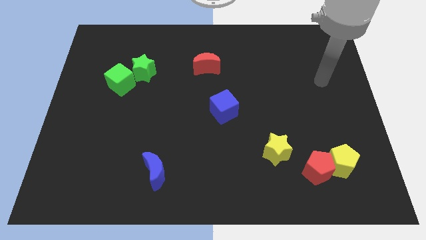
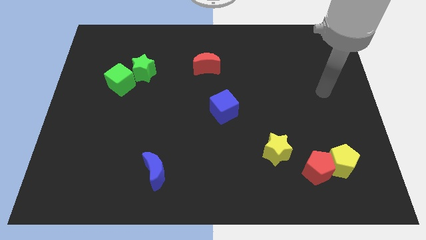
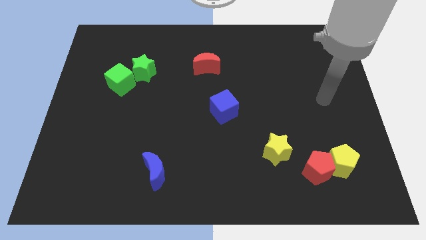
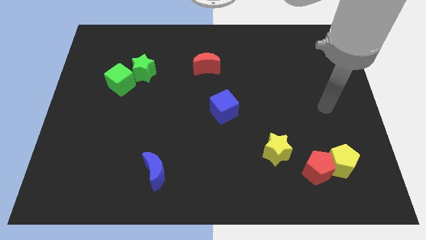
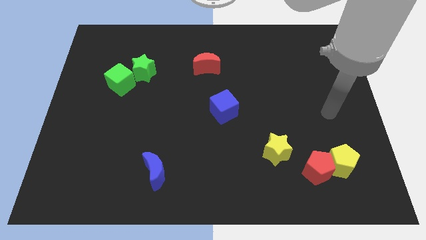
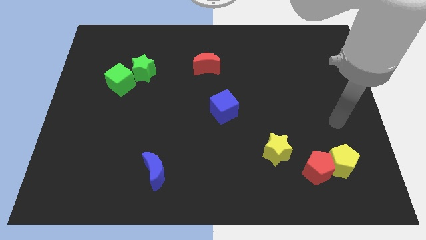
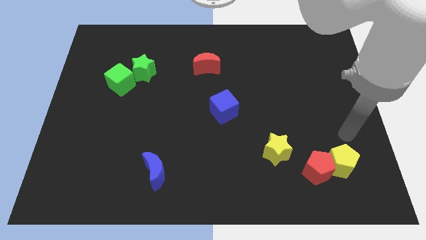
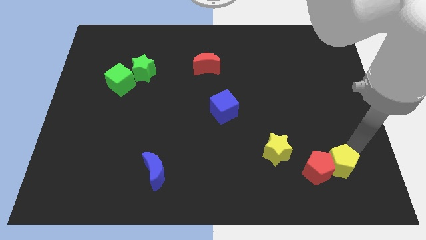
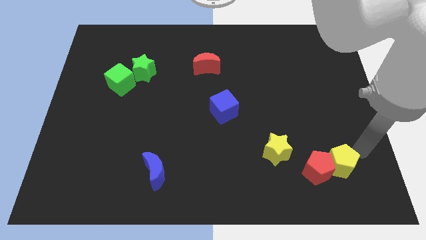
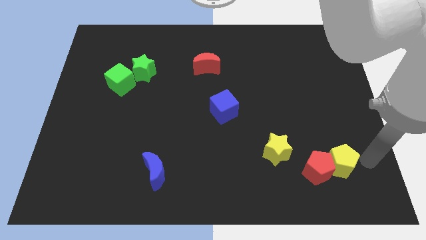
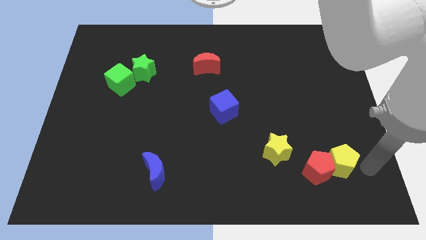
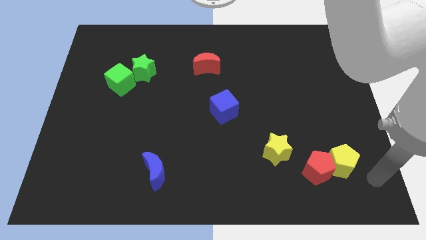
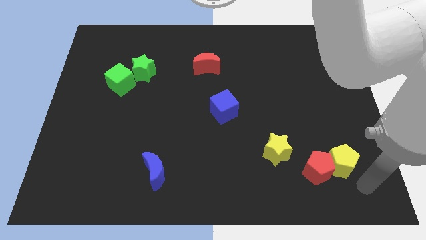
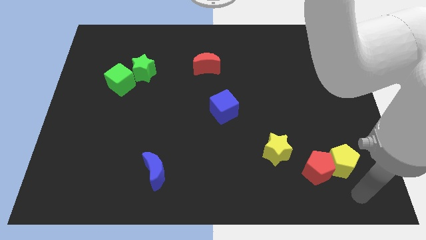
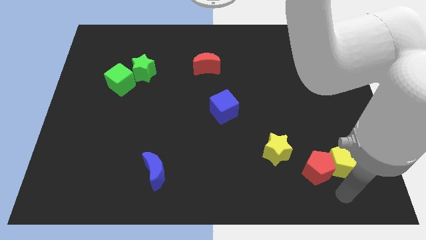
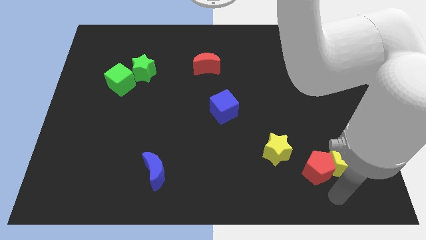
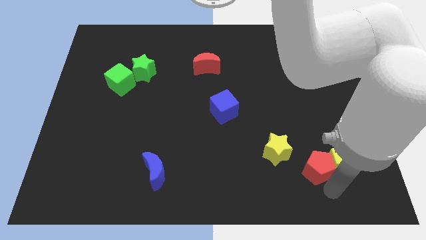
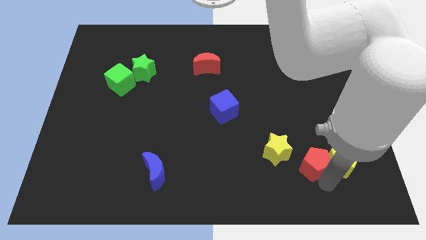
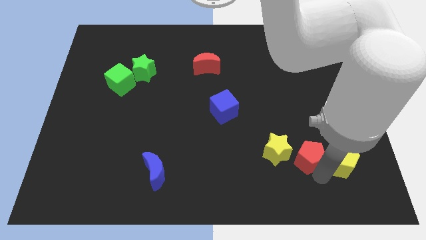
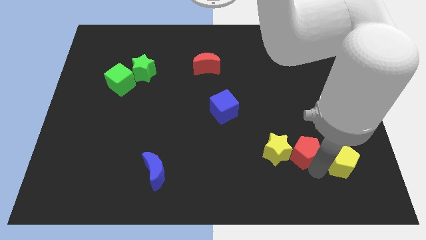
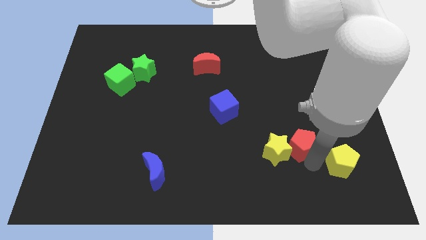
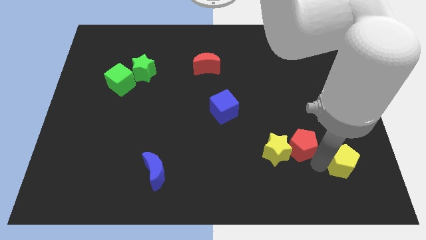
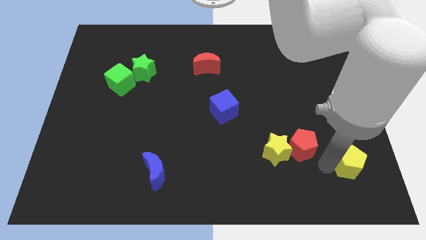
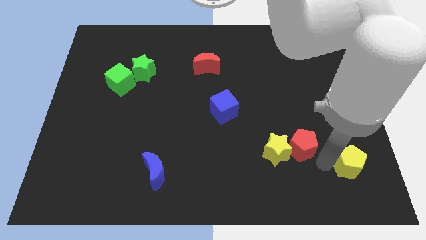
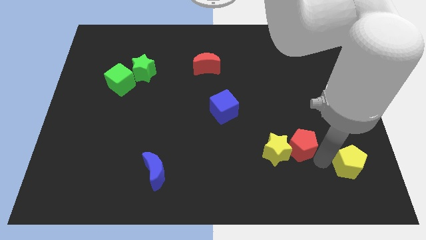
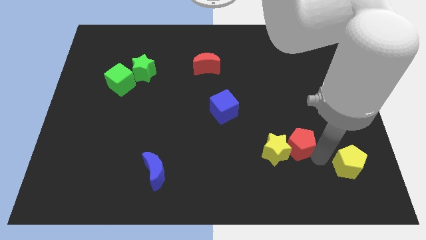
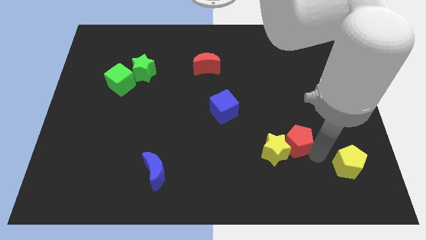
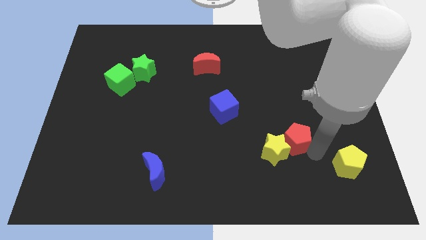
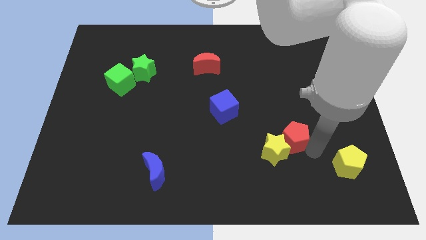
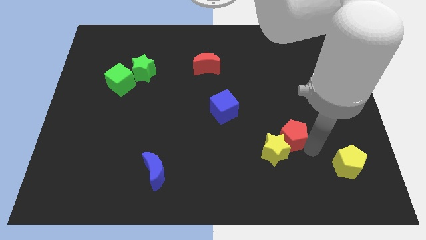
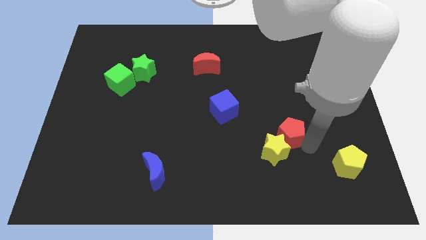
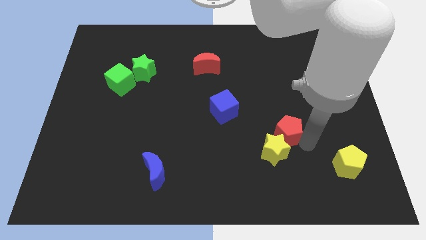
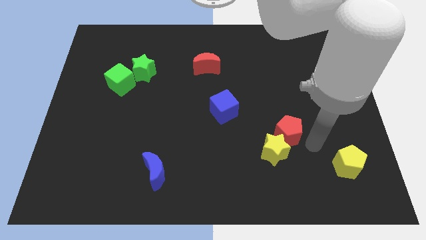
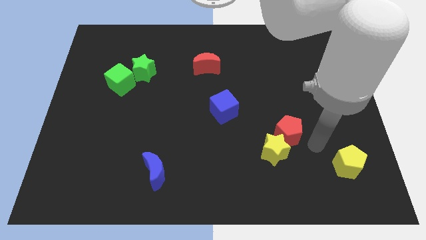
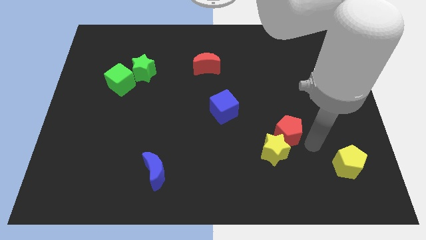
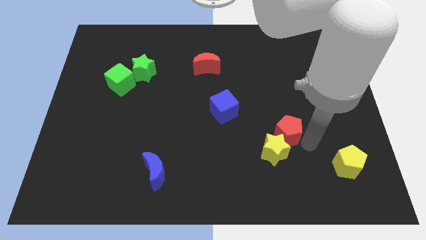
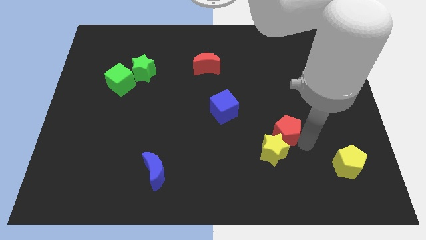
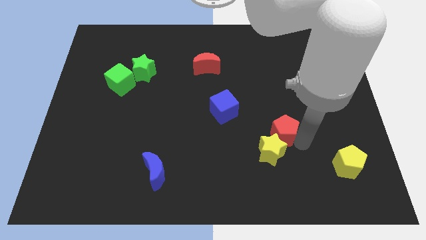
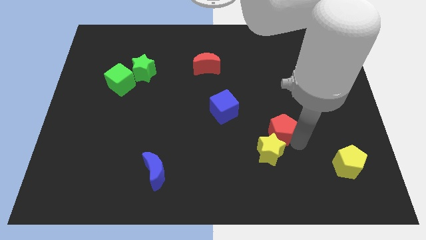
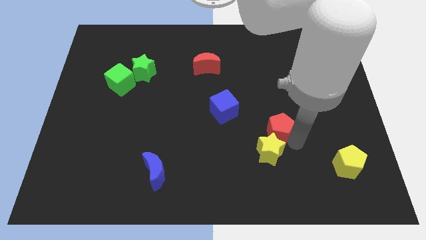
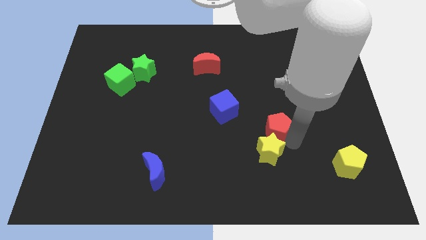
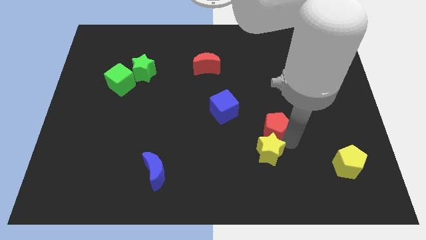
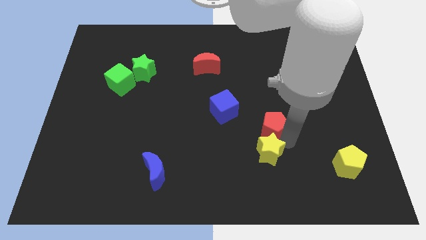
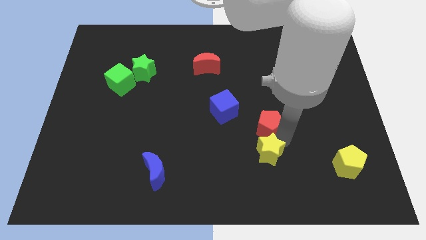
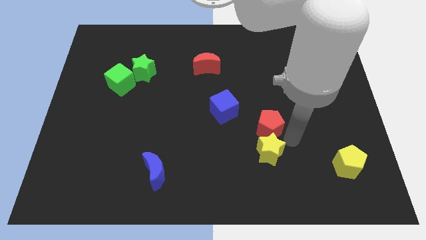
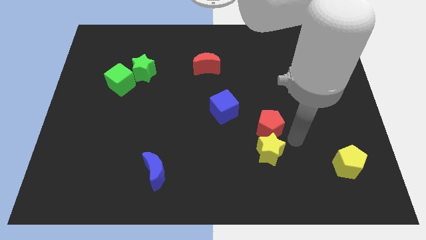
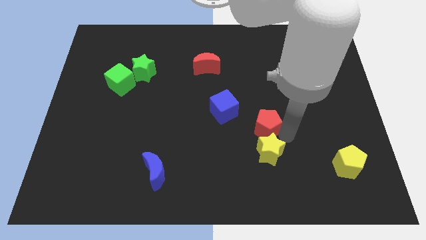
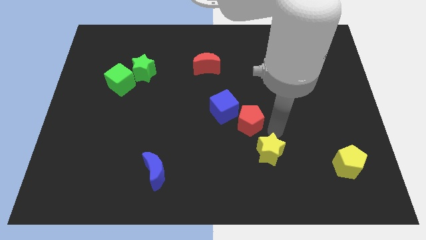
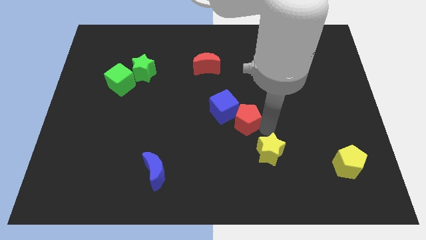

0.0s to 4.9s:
put the red pentagon close to the blue cube

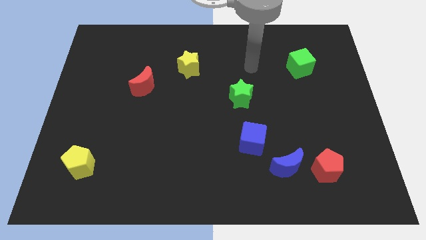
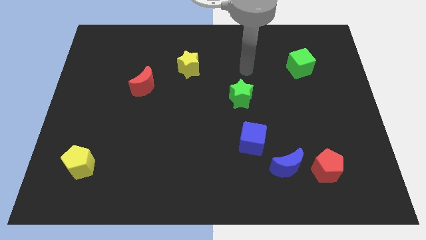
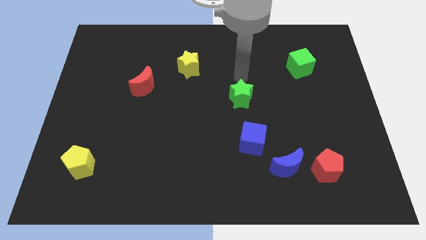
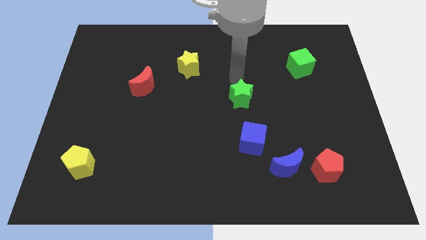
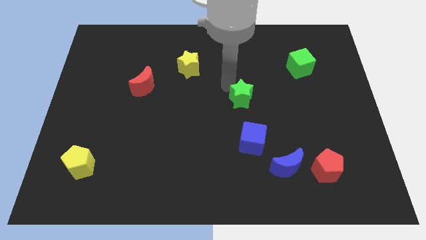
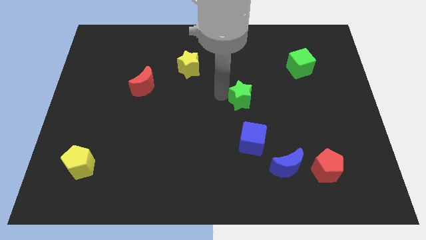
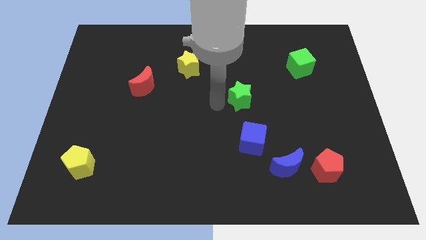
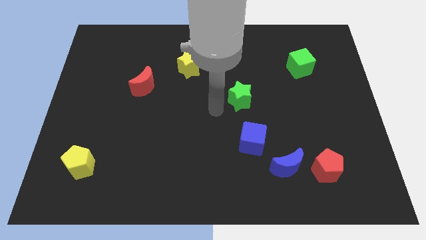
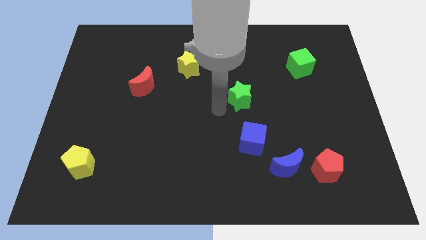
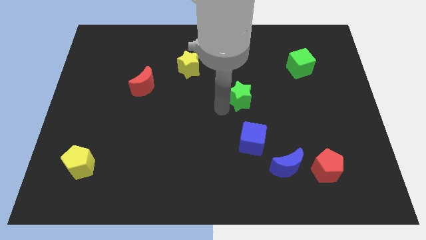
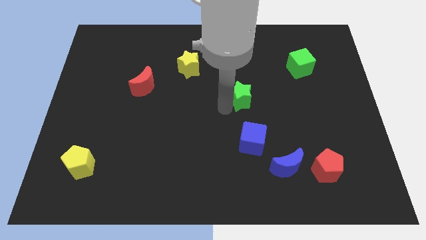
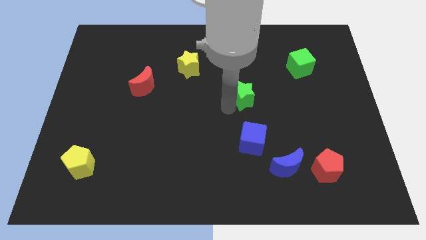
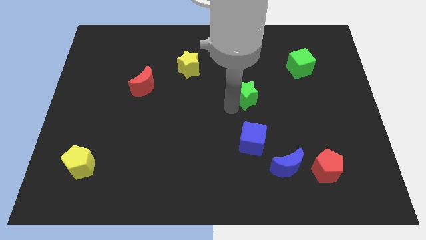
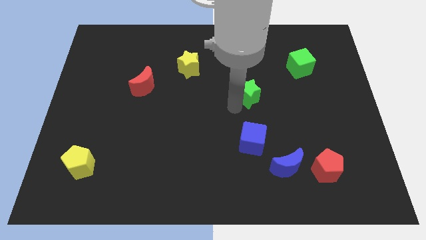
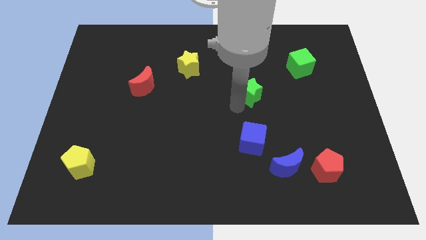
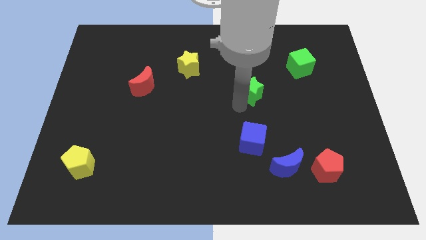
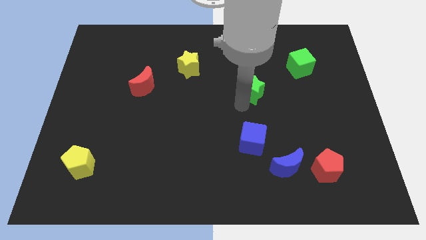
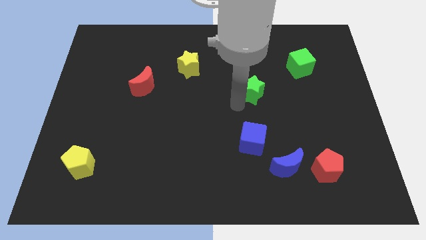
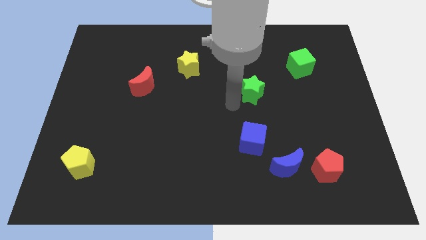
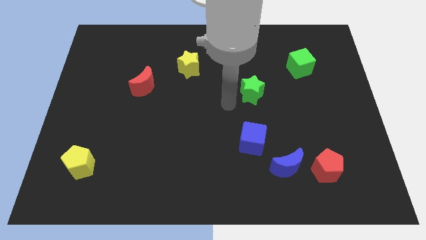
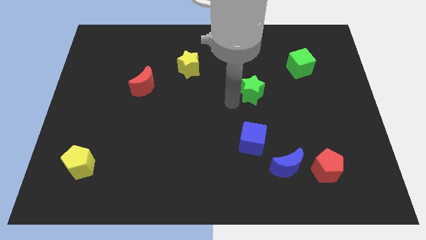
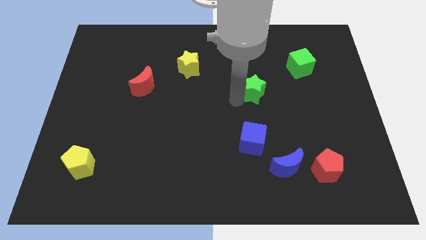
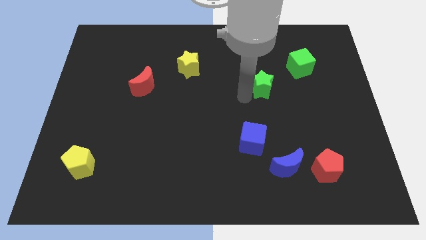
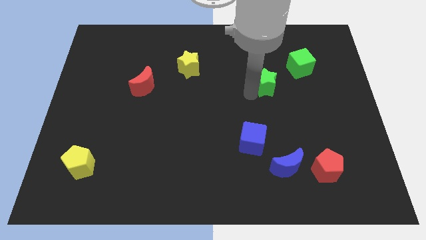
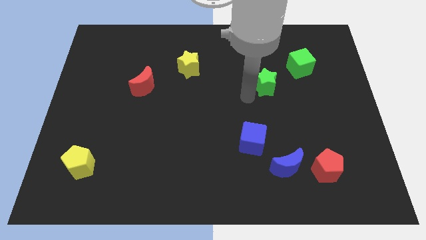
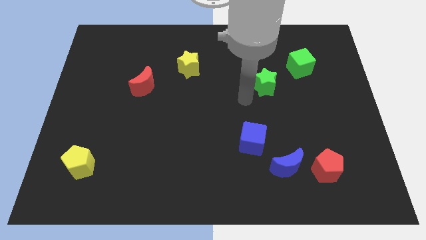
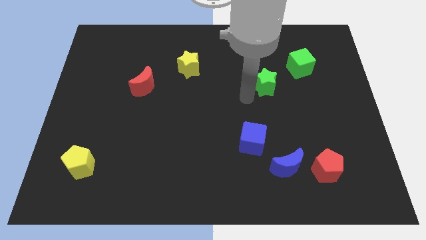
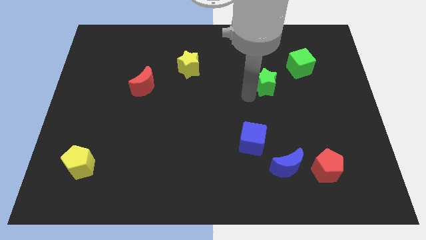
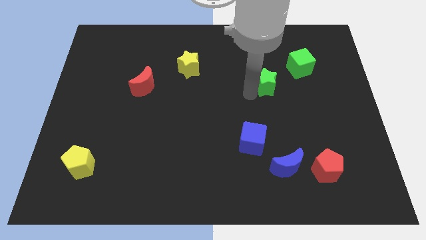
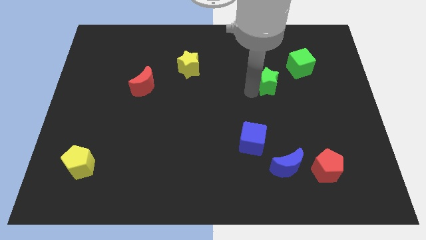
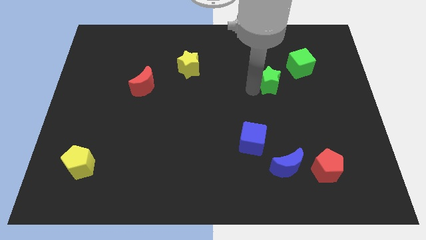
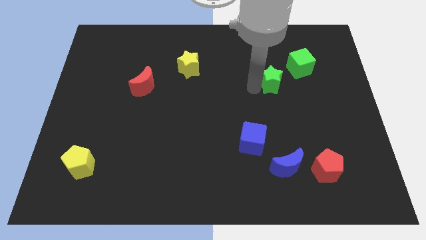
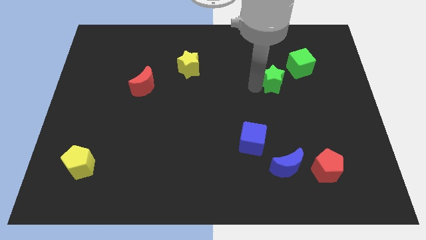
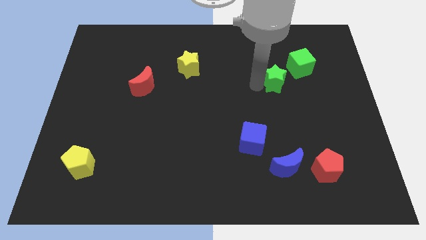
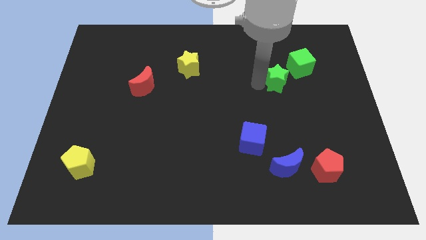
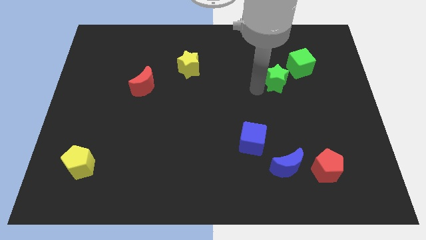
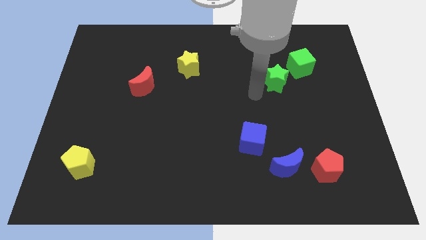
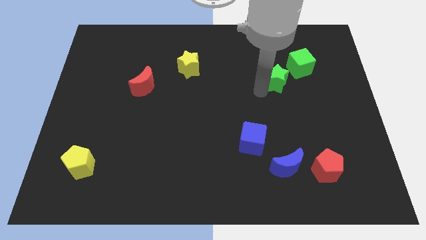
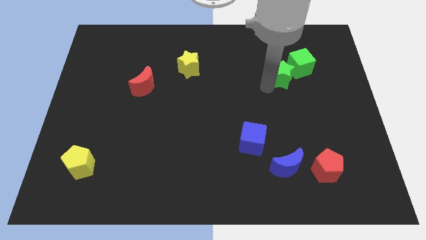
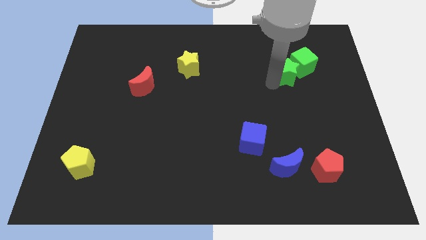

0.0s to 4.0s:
move the green star towards the green cube
